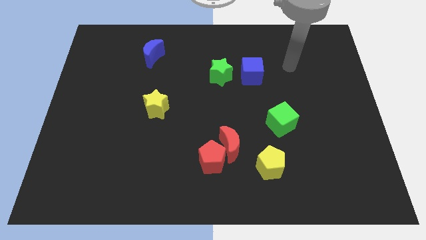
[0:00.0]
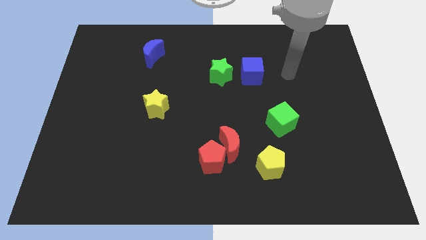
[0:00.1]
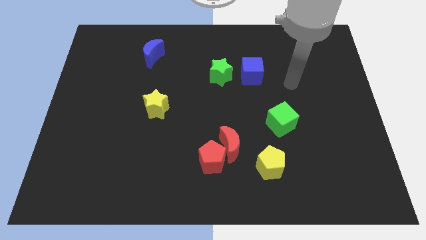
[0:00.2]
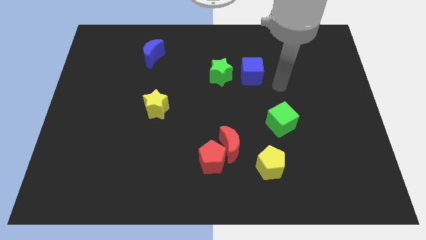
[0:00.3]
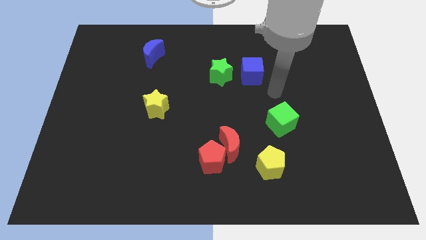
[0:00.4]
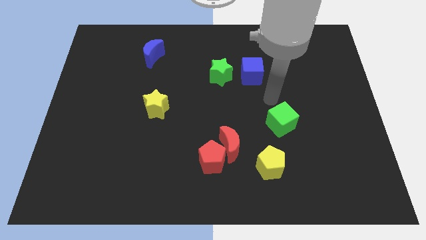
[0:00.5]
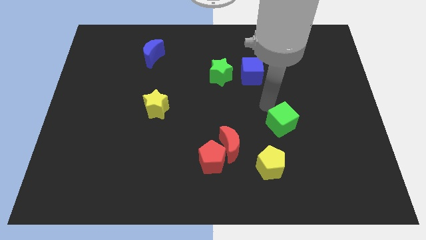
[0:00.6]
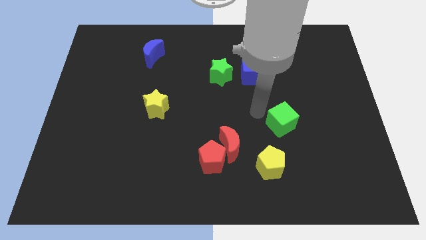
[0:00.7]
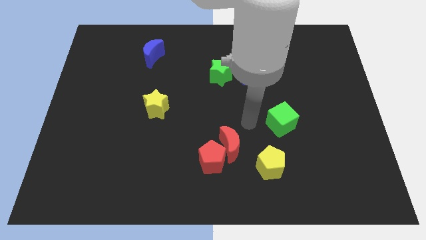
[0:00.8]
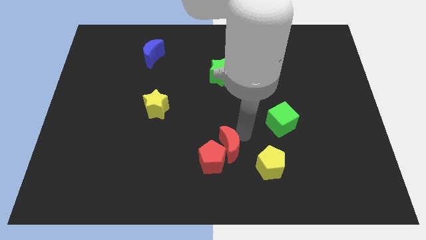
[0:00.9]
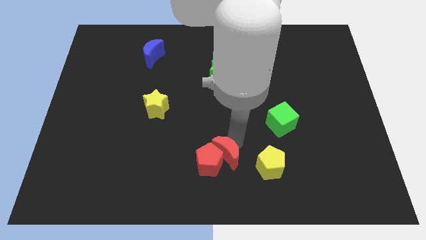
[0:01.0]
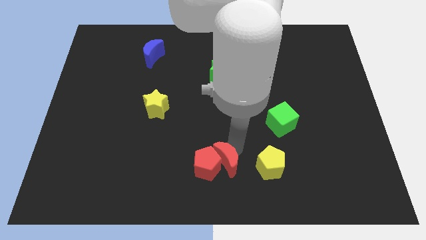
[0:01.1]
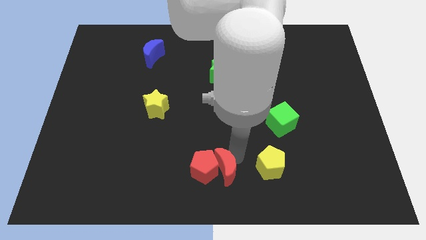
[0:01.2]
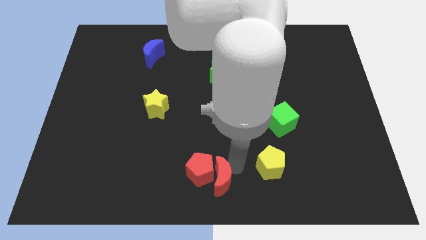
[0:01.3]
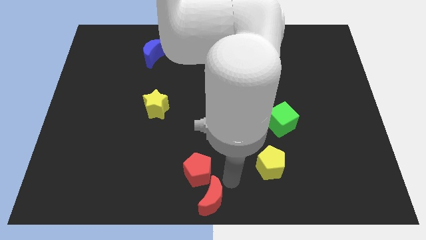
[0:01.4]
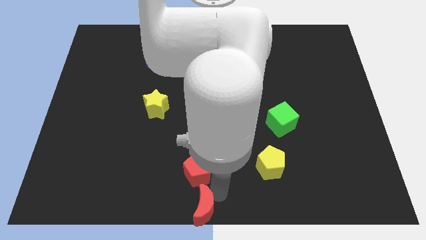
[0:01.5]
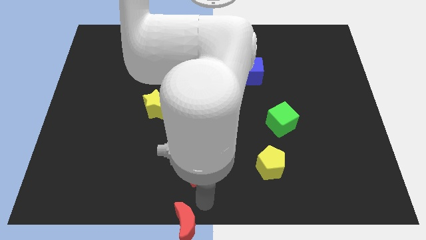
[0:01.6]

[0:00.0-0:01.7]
pull the red pentagon apart from the red moon

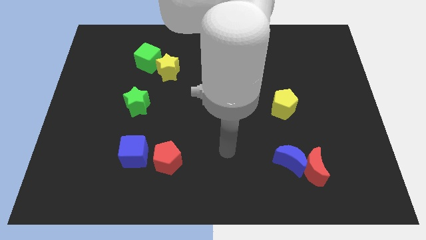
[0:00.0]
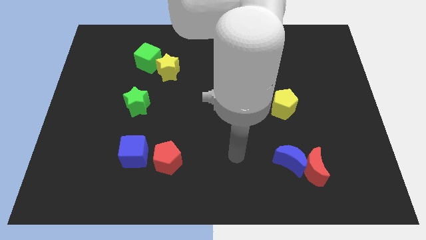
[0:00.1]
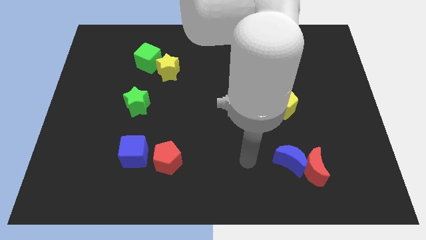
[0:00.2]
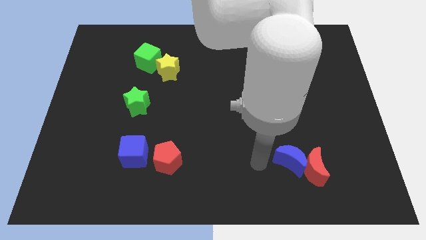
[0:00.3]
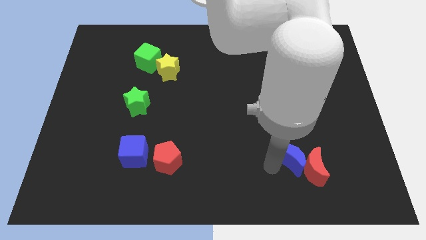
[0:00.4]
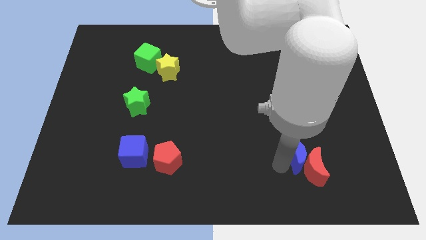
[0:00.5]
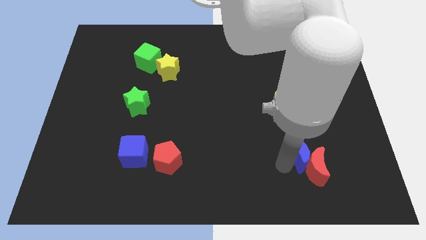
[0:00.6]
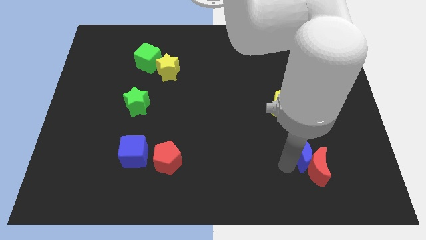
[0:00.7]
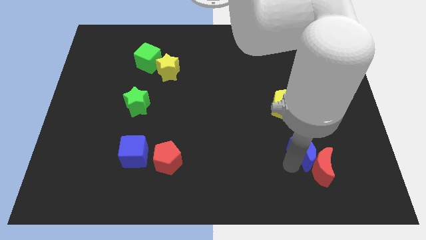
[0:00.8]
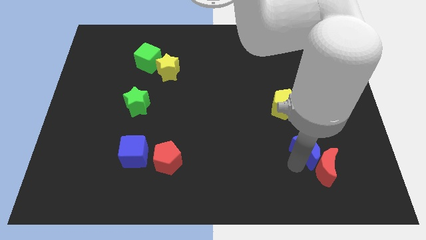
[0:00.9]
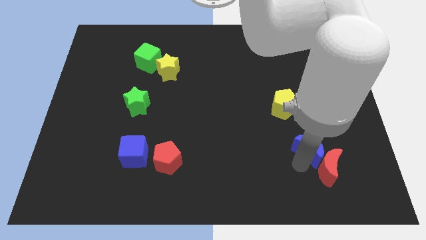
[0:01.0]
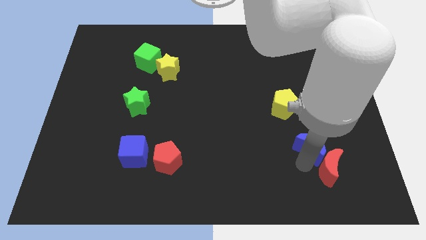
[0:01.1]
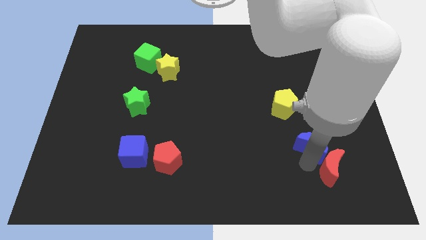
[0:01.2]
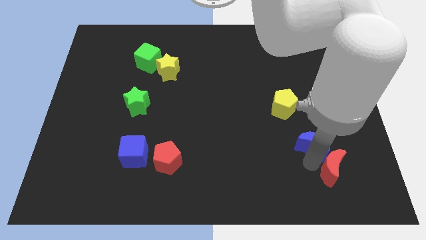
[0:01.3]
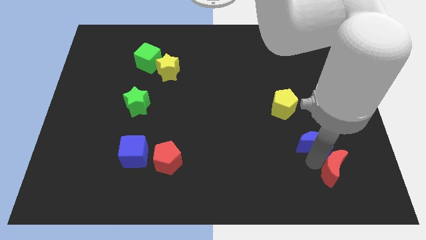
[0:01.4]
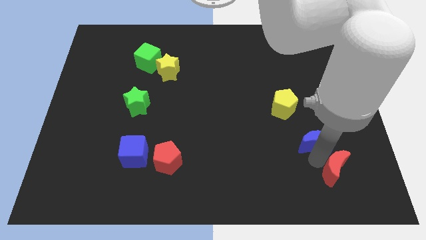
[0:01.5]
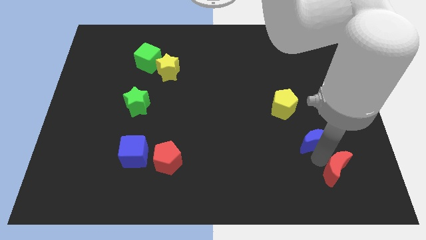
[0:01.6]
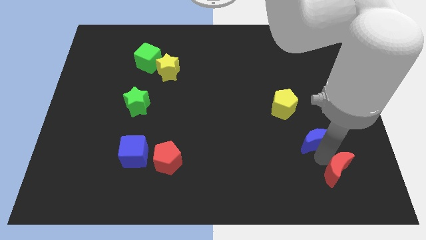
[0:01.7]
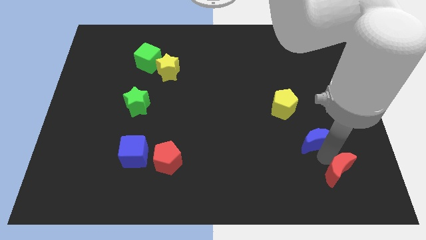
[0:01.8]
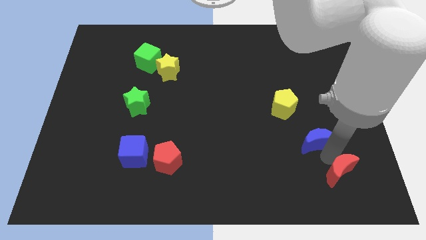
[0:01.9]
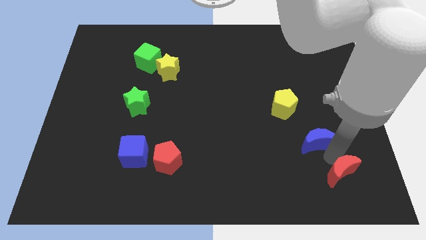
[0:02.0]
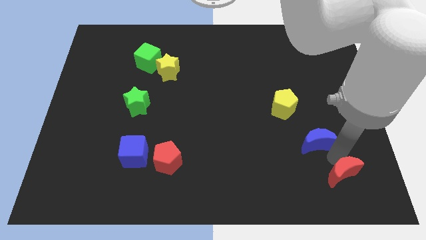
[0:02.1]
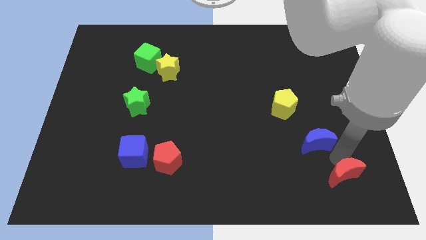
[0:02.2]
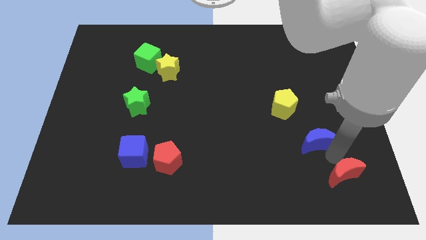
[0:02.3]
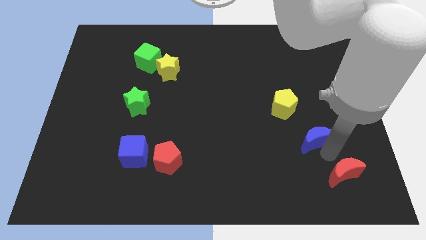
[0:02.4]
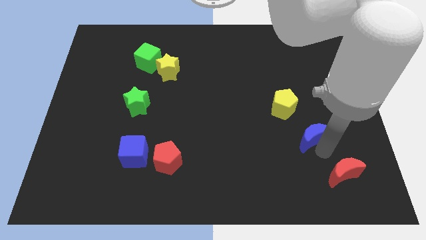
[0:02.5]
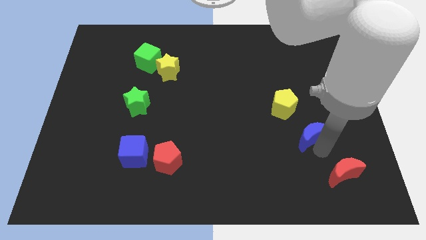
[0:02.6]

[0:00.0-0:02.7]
pull the red moon apart from the blue moon

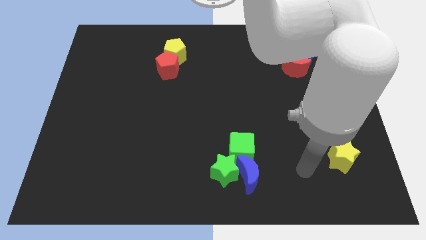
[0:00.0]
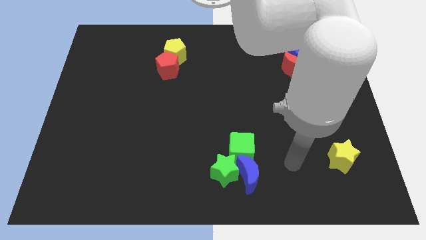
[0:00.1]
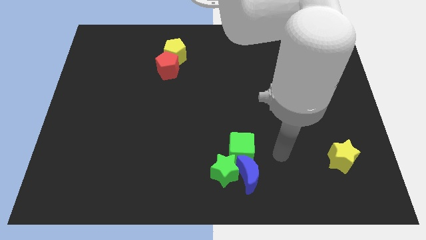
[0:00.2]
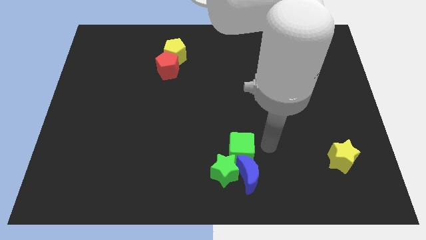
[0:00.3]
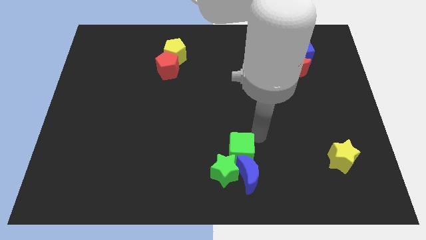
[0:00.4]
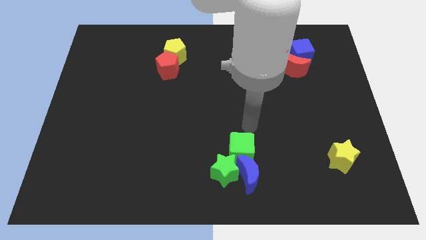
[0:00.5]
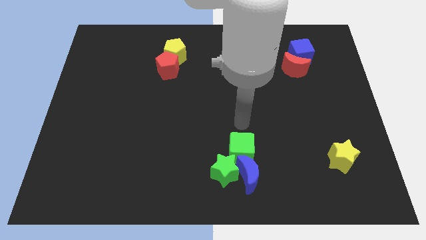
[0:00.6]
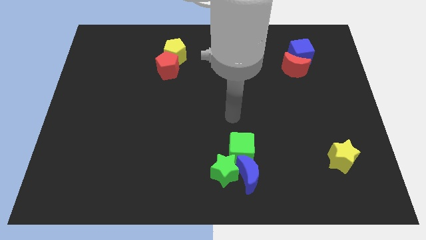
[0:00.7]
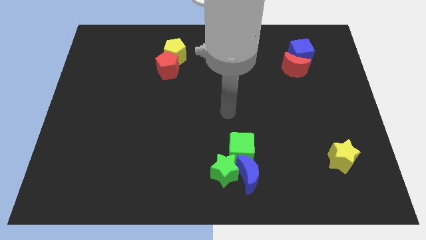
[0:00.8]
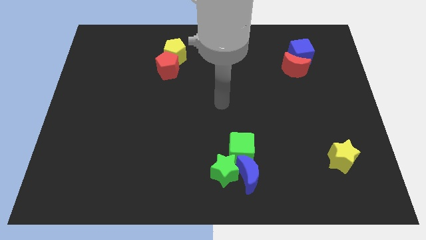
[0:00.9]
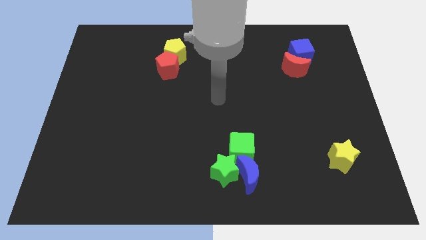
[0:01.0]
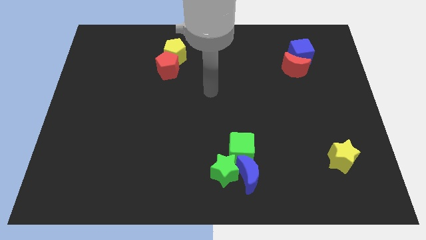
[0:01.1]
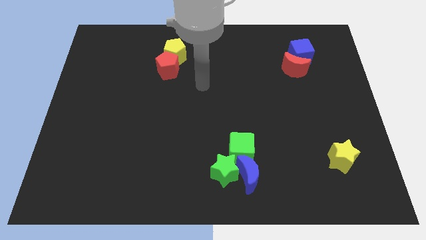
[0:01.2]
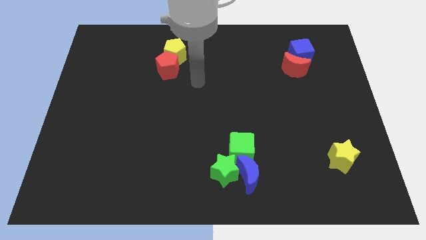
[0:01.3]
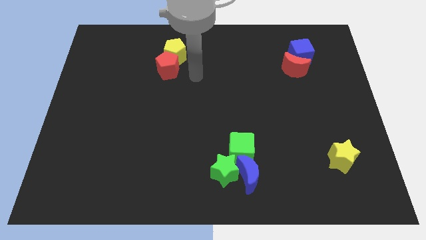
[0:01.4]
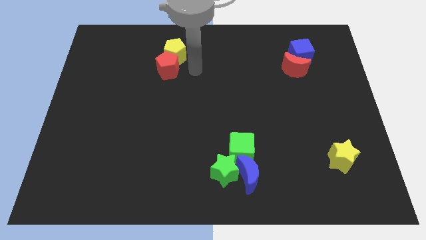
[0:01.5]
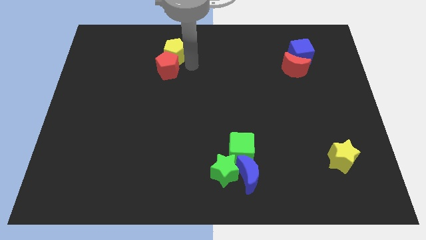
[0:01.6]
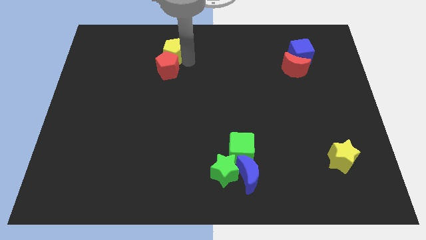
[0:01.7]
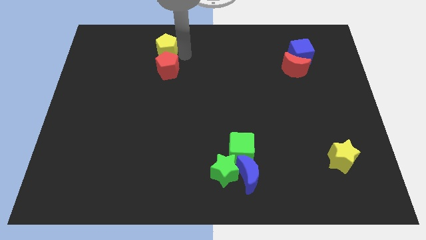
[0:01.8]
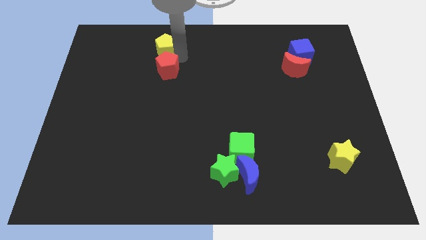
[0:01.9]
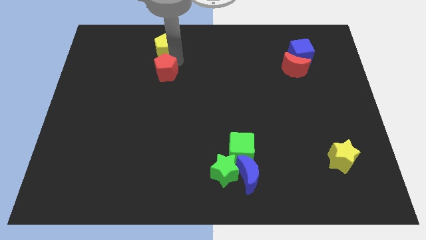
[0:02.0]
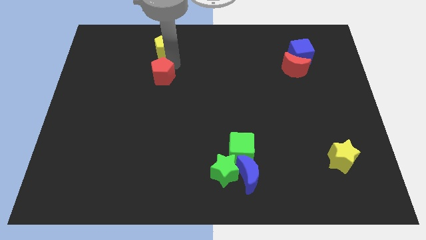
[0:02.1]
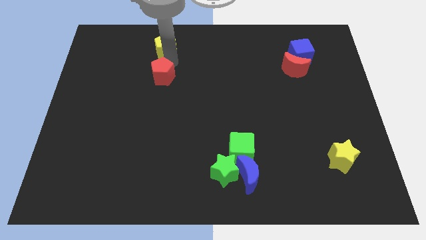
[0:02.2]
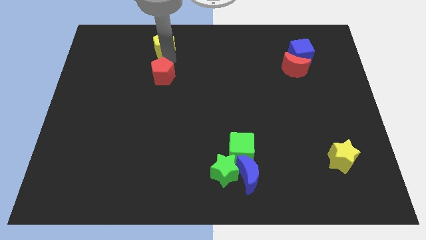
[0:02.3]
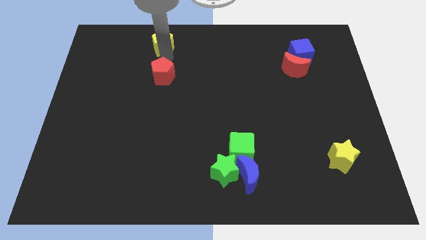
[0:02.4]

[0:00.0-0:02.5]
pull the red pentagon apart from the yellow pentagon

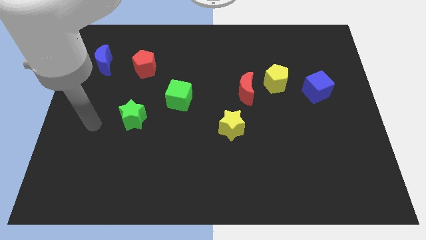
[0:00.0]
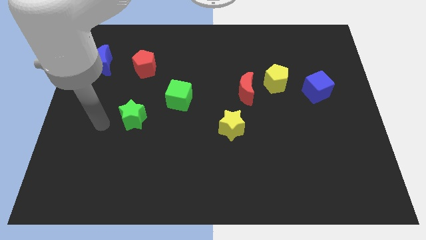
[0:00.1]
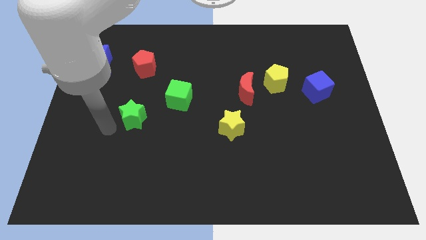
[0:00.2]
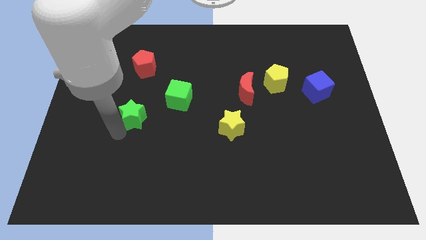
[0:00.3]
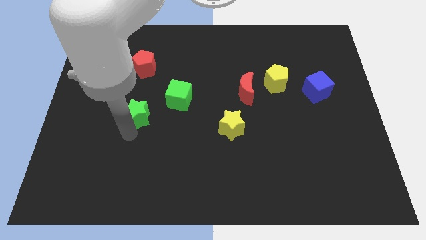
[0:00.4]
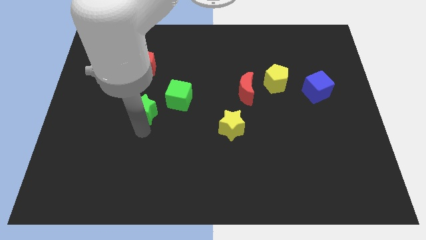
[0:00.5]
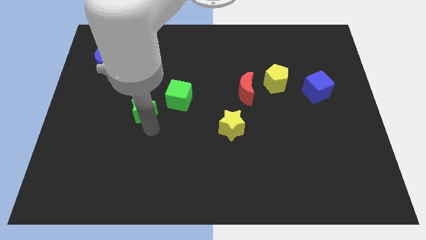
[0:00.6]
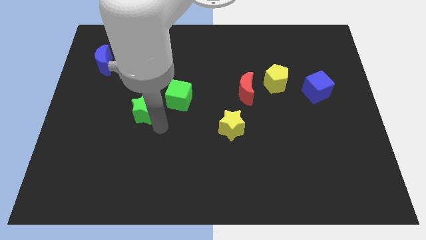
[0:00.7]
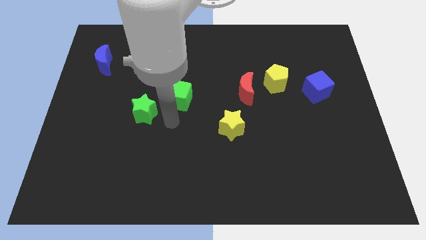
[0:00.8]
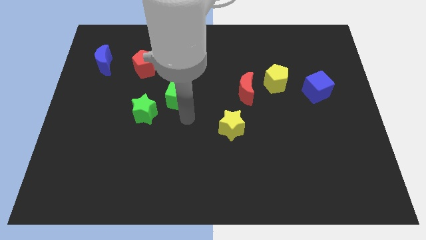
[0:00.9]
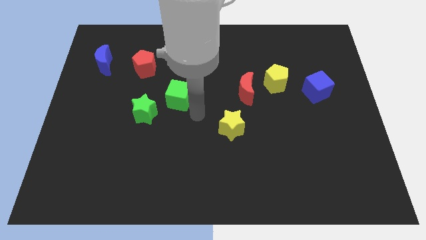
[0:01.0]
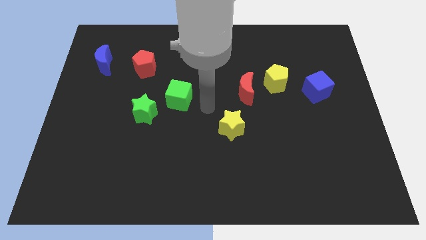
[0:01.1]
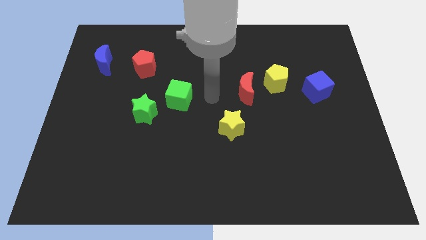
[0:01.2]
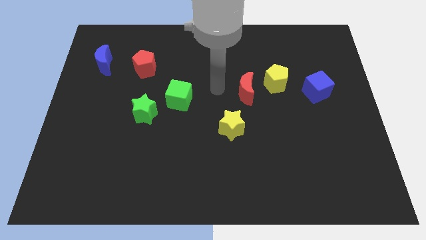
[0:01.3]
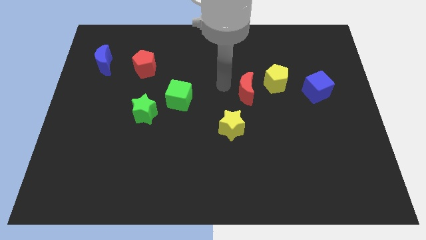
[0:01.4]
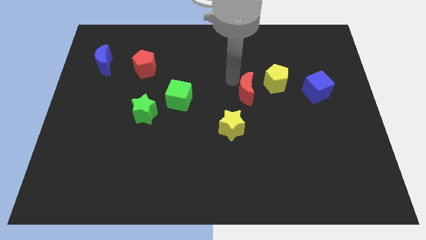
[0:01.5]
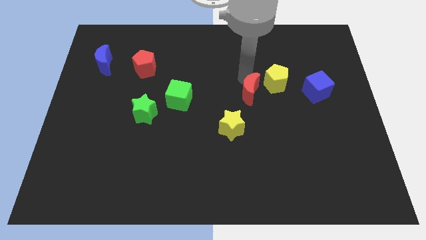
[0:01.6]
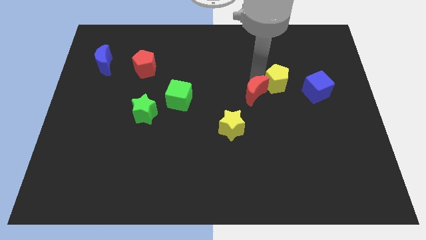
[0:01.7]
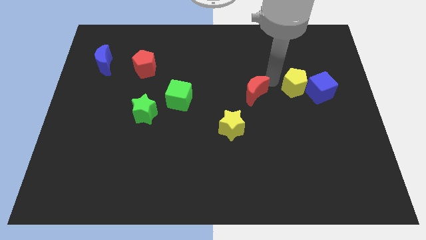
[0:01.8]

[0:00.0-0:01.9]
separate the red moon from the yellow pentagon

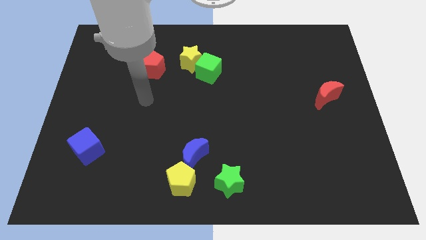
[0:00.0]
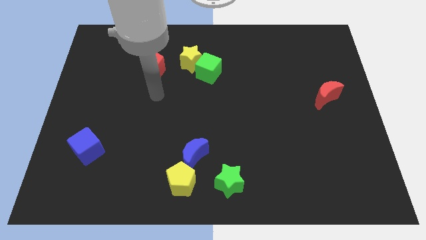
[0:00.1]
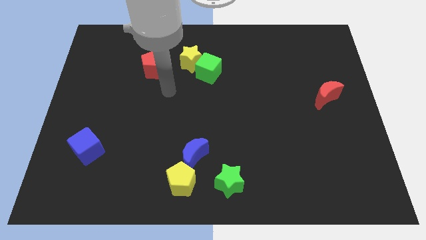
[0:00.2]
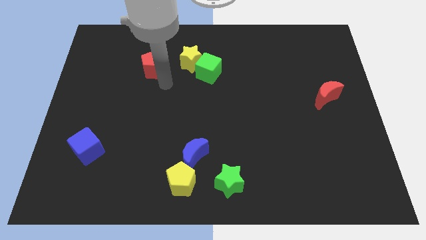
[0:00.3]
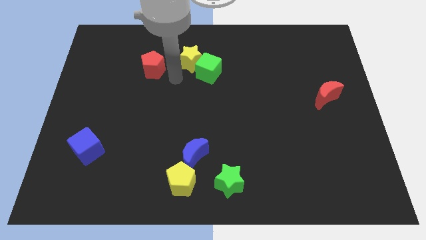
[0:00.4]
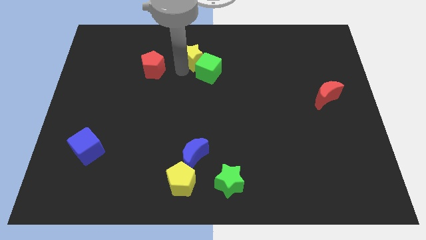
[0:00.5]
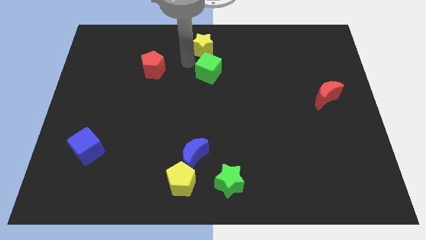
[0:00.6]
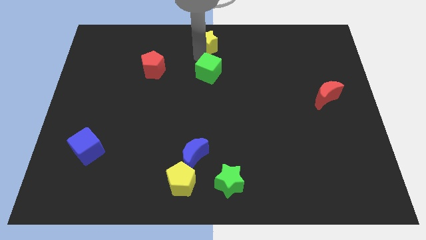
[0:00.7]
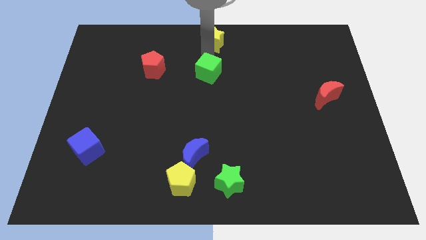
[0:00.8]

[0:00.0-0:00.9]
move the green cube away from the yellow star
